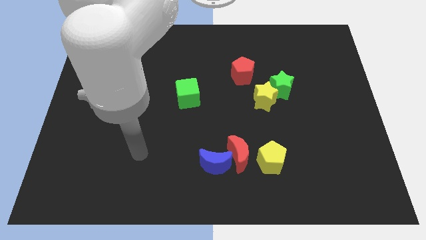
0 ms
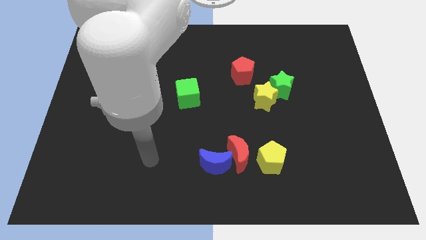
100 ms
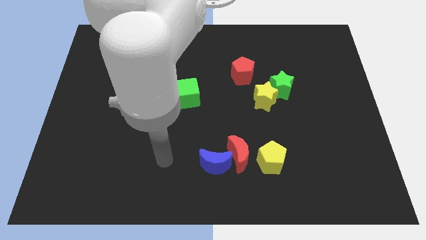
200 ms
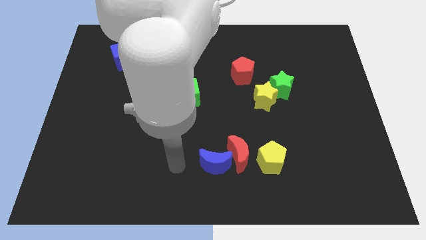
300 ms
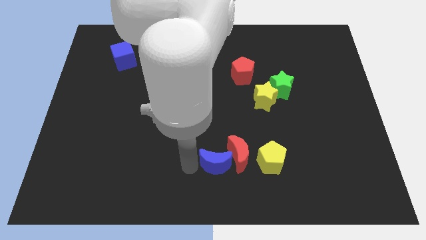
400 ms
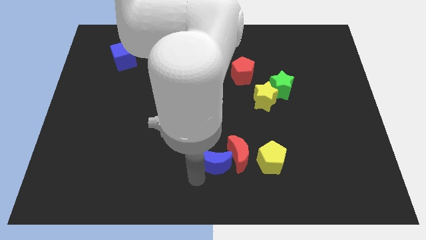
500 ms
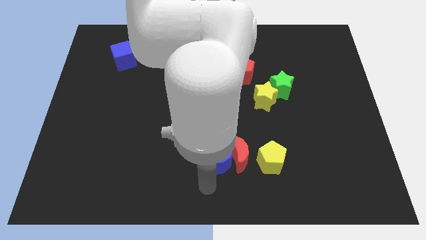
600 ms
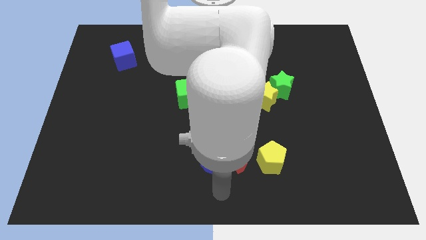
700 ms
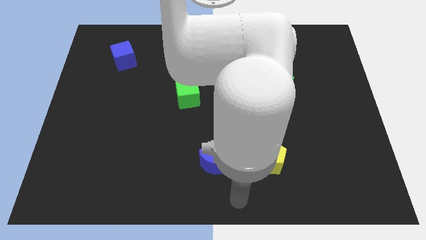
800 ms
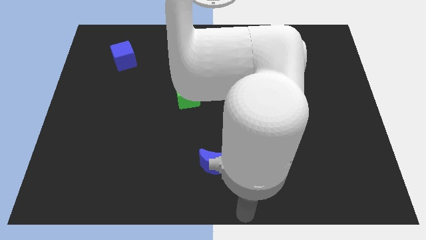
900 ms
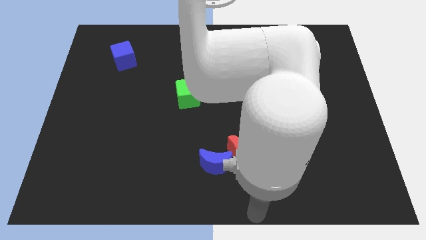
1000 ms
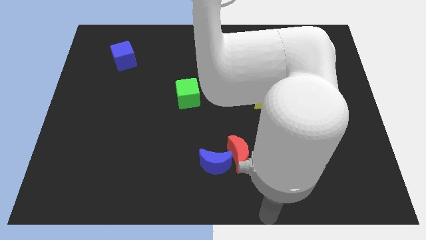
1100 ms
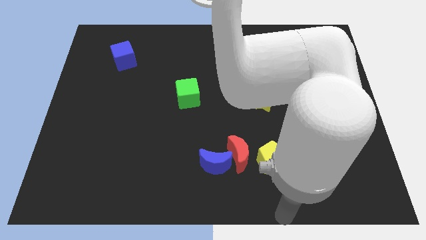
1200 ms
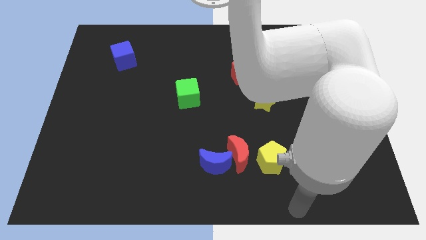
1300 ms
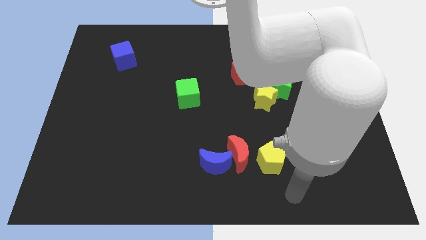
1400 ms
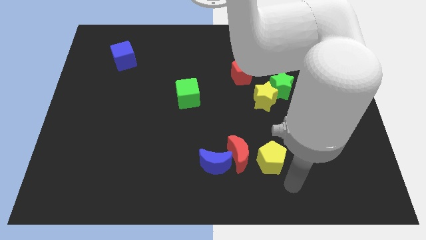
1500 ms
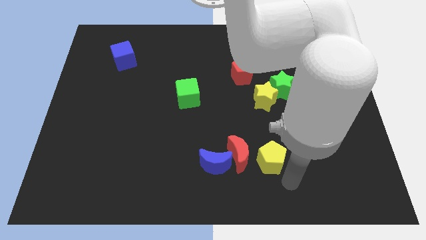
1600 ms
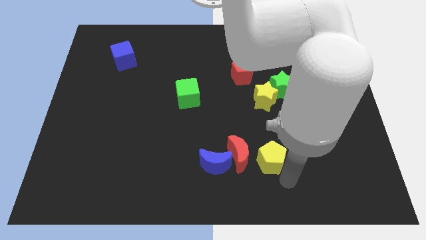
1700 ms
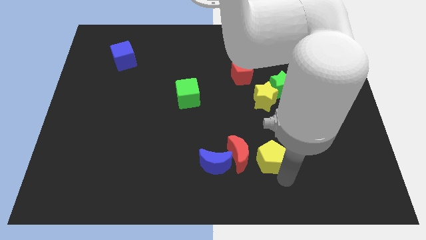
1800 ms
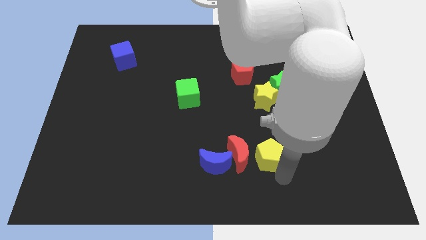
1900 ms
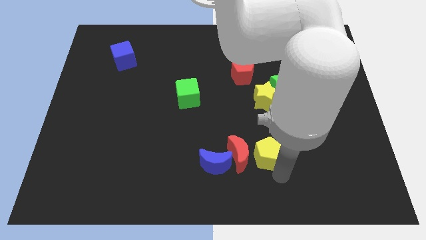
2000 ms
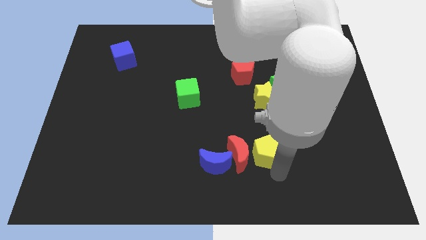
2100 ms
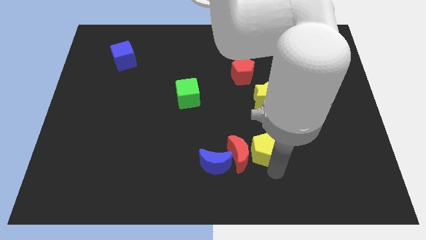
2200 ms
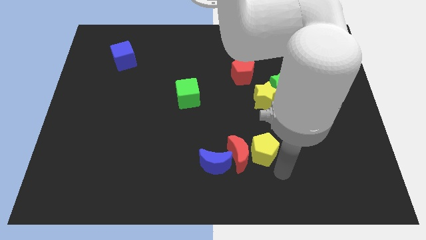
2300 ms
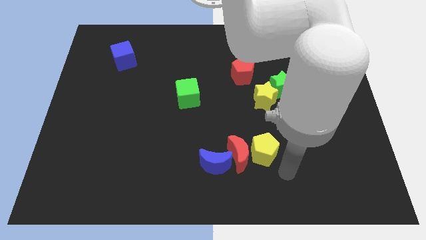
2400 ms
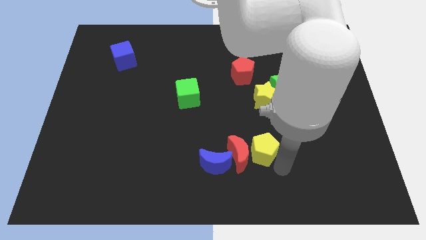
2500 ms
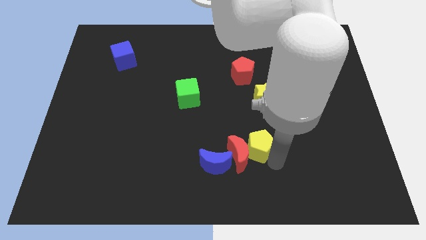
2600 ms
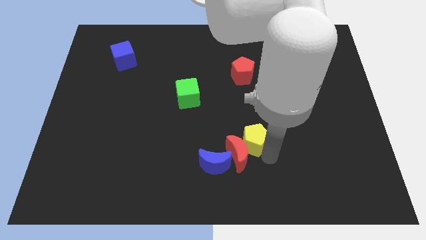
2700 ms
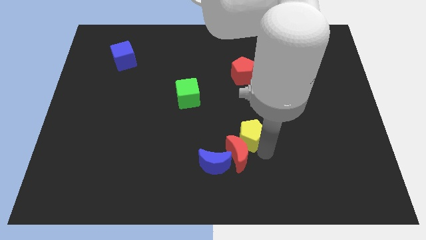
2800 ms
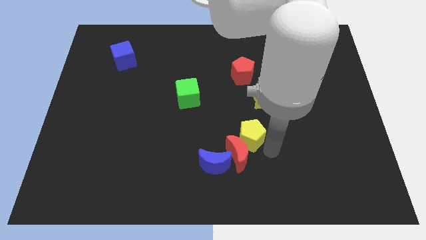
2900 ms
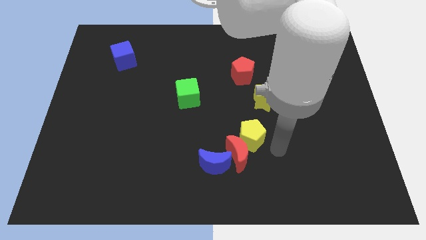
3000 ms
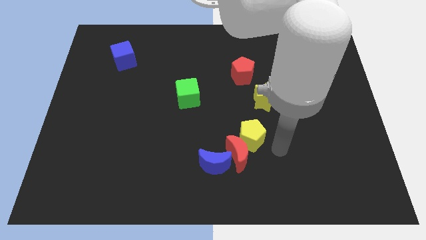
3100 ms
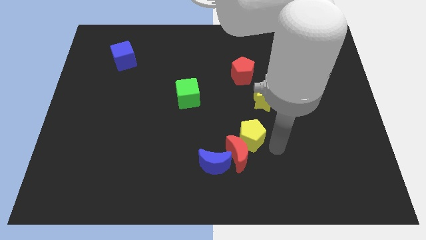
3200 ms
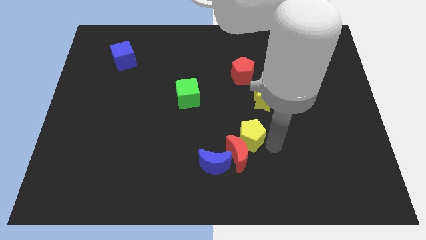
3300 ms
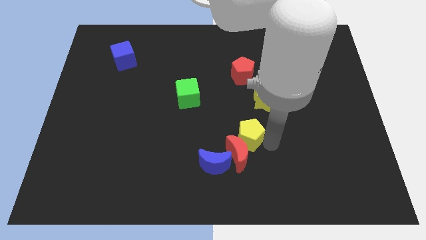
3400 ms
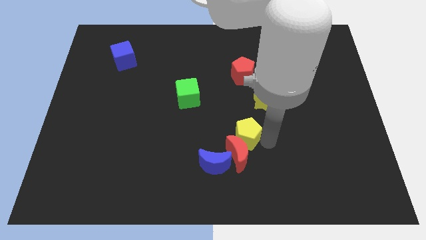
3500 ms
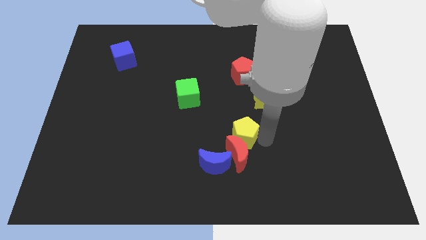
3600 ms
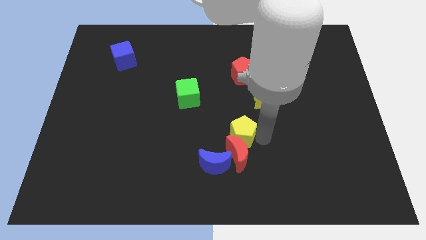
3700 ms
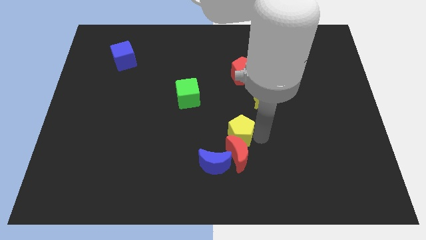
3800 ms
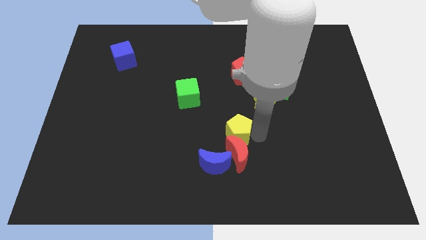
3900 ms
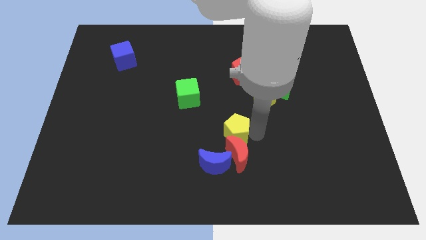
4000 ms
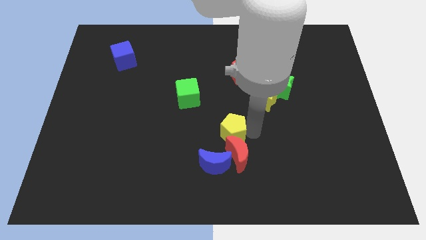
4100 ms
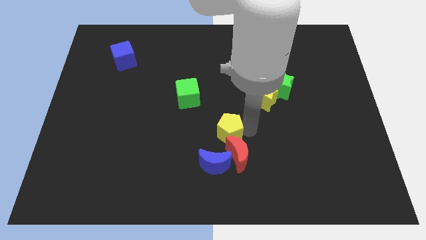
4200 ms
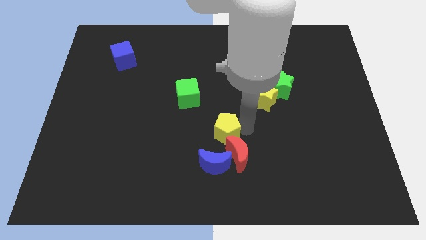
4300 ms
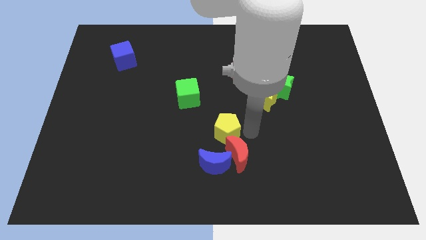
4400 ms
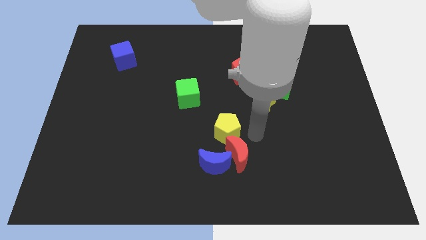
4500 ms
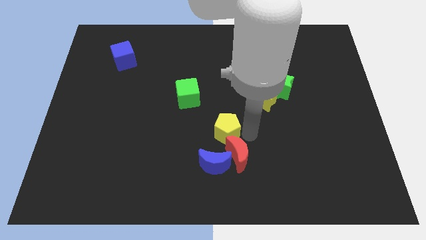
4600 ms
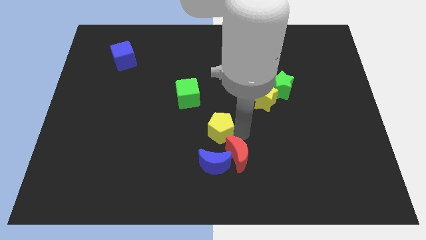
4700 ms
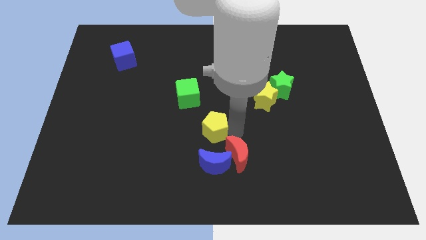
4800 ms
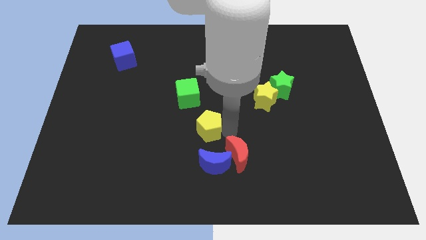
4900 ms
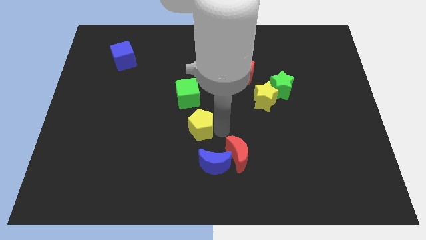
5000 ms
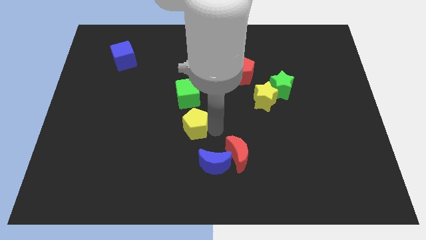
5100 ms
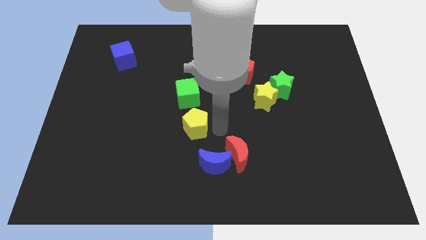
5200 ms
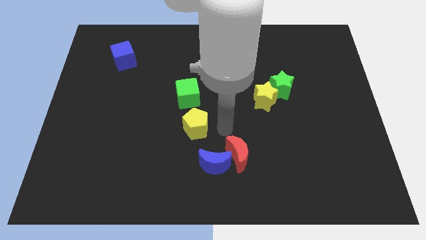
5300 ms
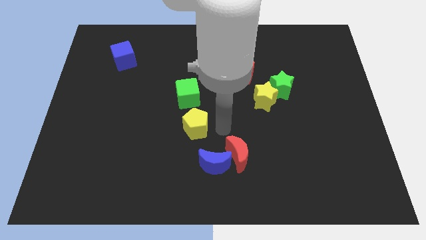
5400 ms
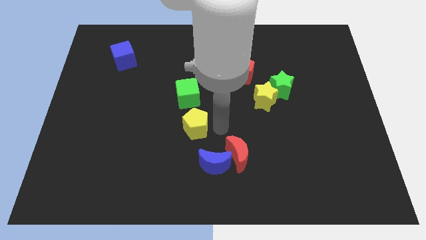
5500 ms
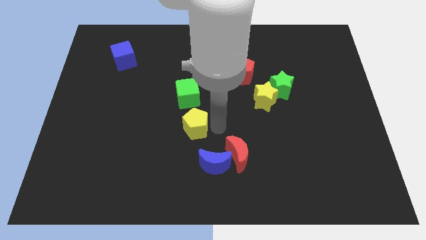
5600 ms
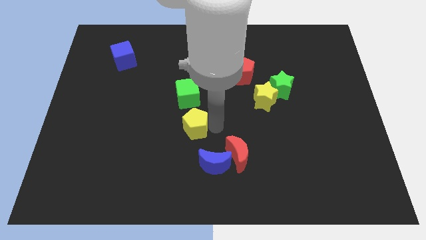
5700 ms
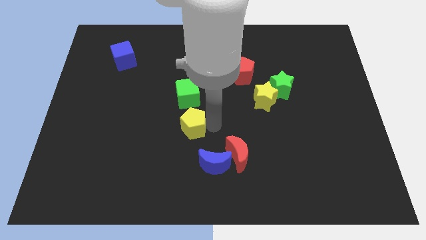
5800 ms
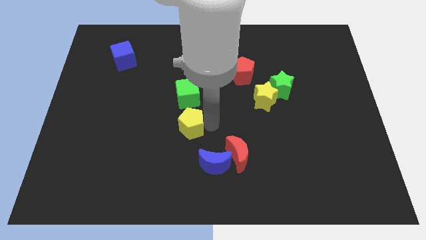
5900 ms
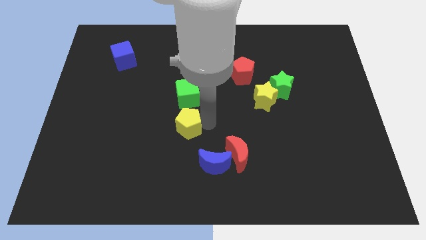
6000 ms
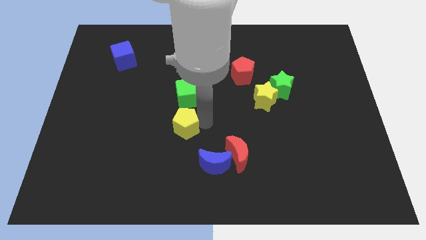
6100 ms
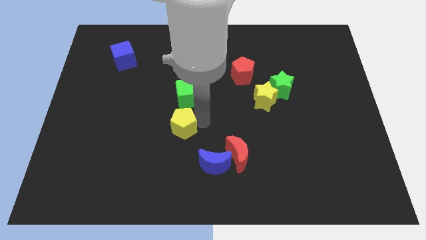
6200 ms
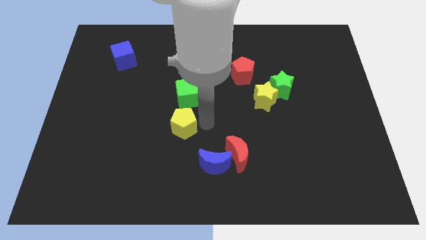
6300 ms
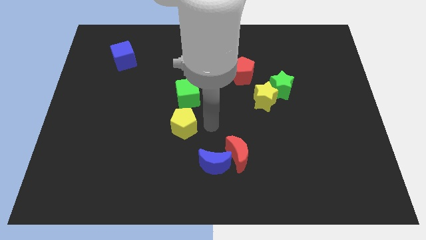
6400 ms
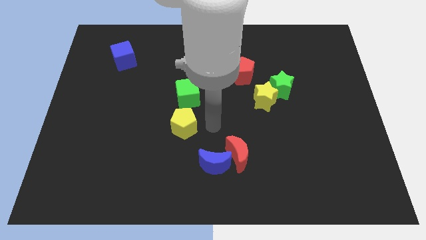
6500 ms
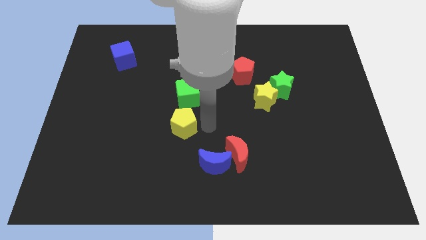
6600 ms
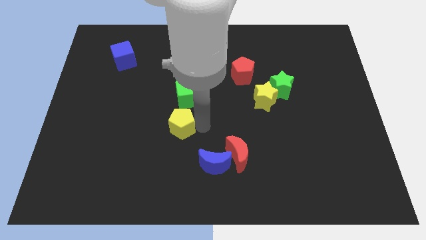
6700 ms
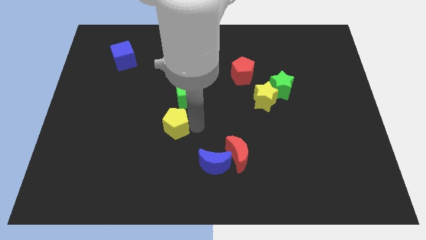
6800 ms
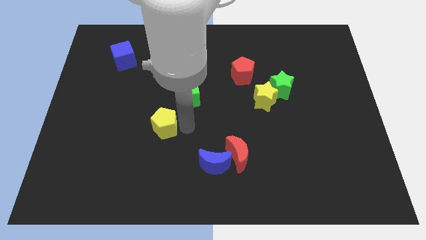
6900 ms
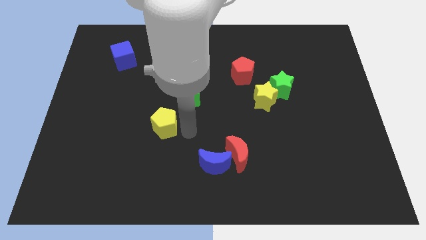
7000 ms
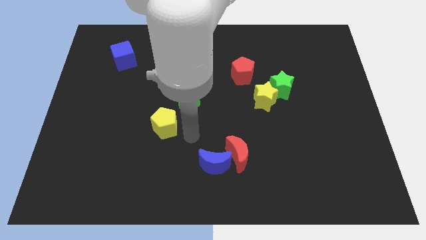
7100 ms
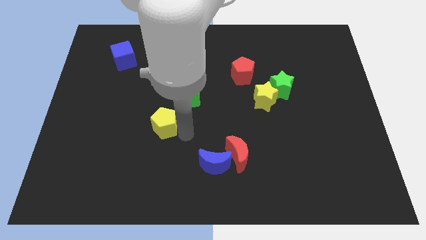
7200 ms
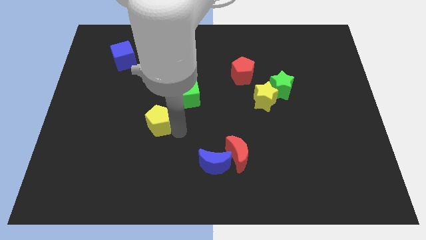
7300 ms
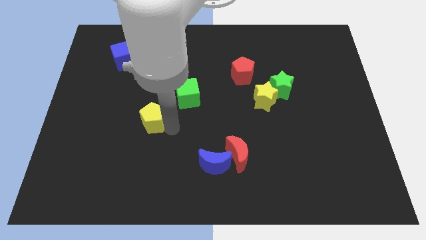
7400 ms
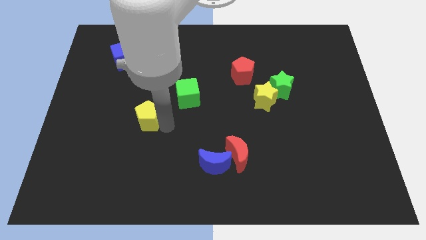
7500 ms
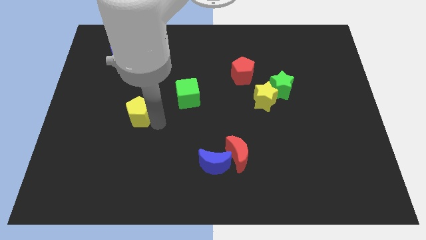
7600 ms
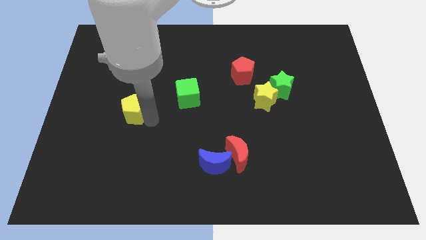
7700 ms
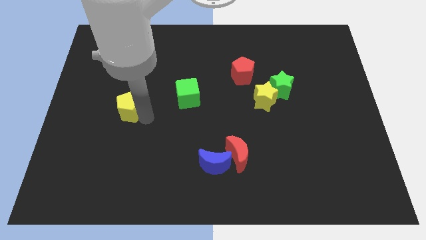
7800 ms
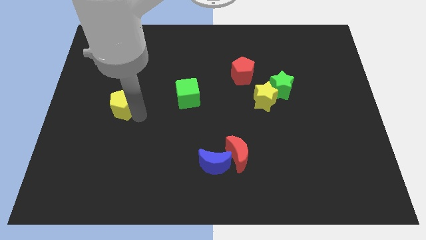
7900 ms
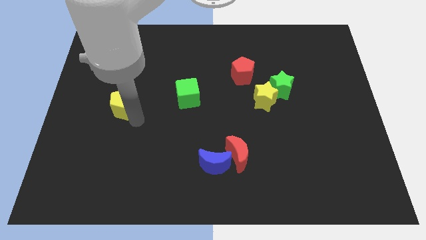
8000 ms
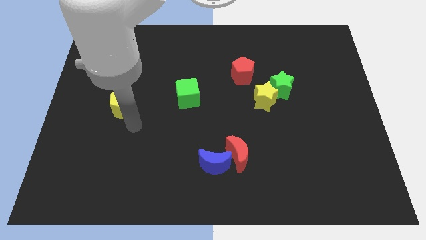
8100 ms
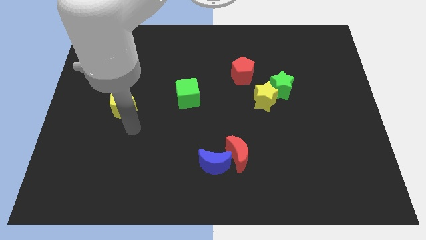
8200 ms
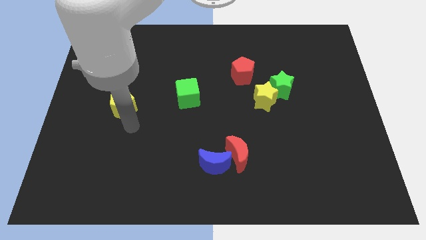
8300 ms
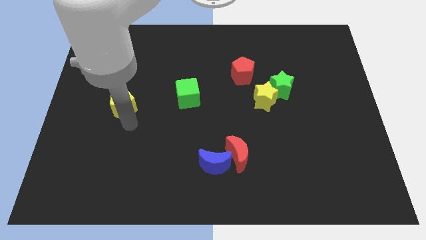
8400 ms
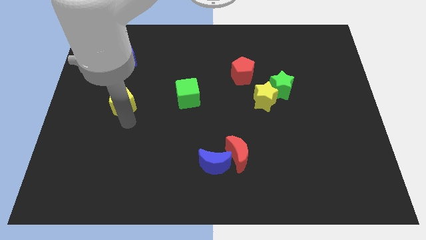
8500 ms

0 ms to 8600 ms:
push the yellow pentagon to the bottom side of the blue cube
